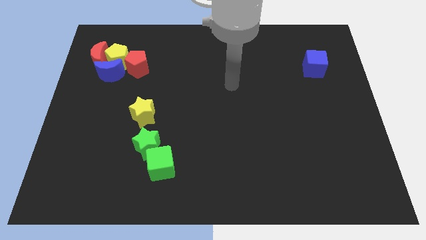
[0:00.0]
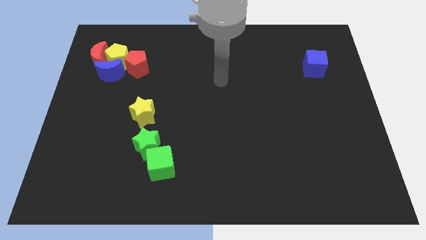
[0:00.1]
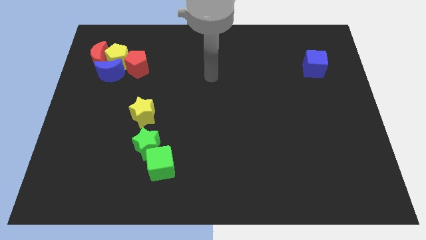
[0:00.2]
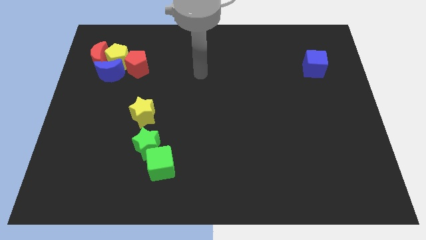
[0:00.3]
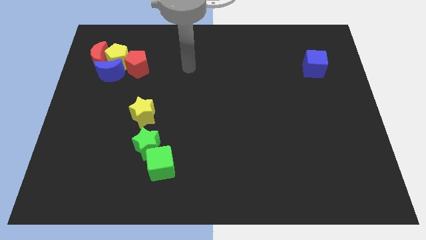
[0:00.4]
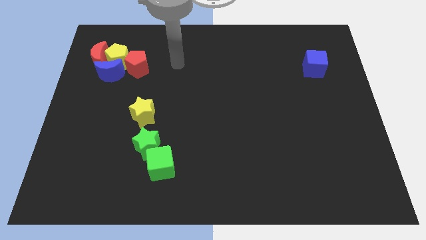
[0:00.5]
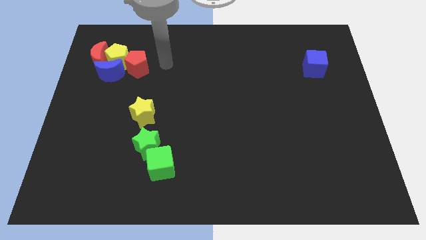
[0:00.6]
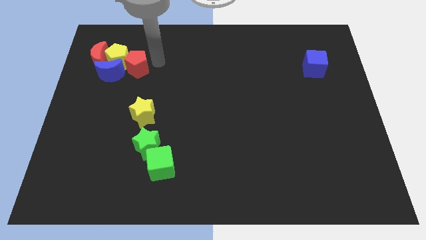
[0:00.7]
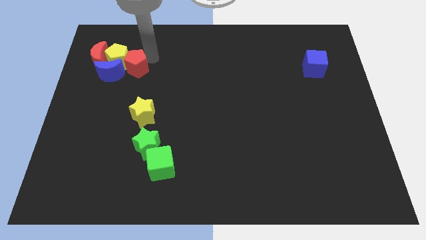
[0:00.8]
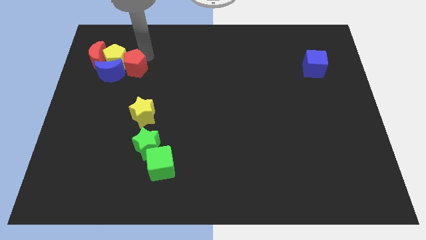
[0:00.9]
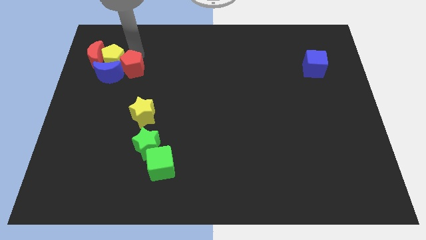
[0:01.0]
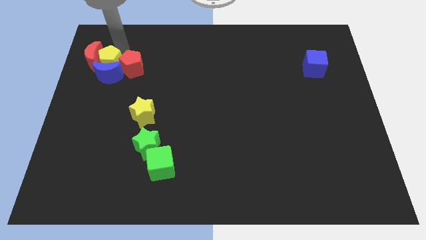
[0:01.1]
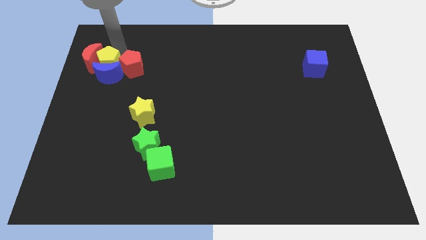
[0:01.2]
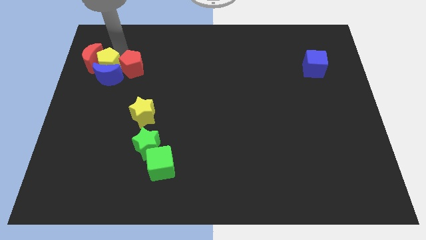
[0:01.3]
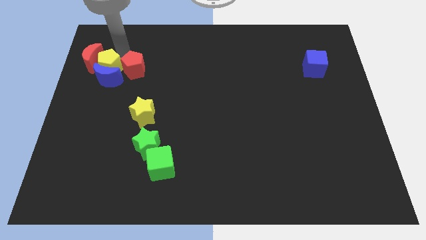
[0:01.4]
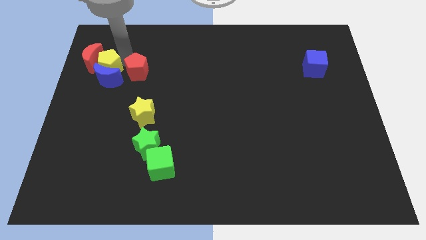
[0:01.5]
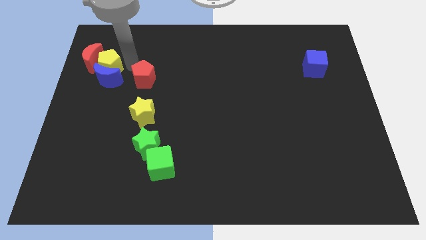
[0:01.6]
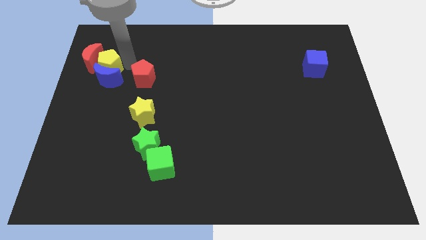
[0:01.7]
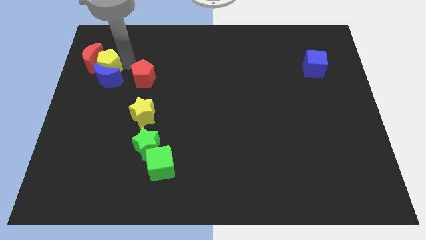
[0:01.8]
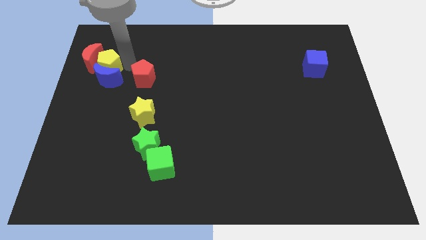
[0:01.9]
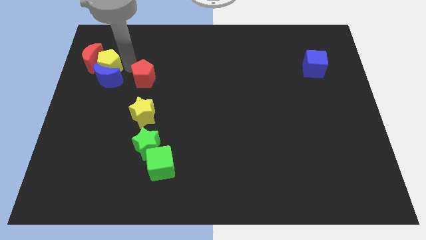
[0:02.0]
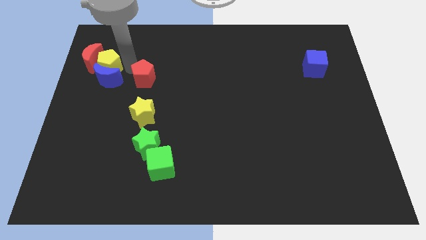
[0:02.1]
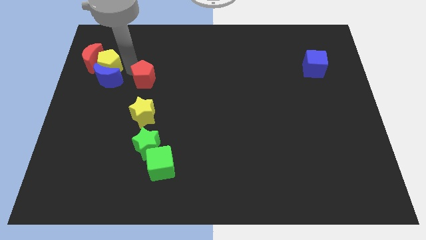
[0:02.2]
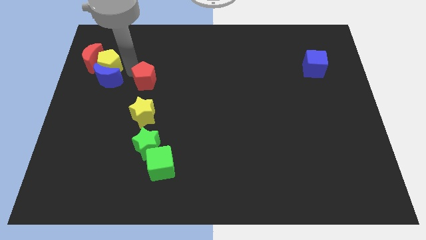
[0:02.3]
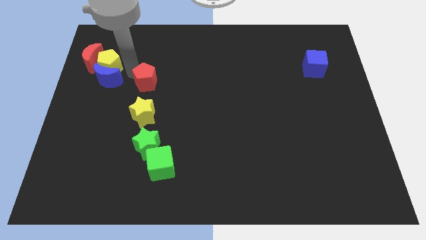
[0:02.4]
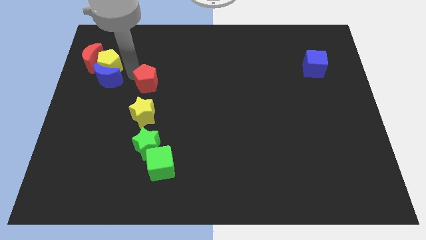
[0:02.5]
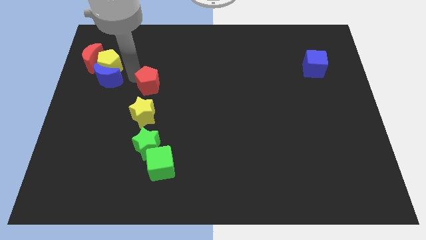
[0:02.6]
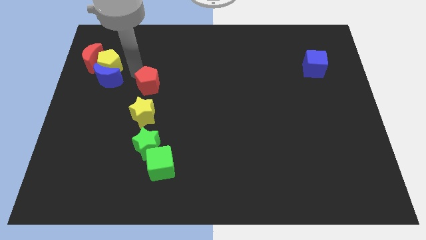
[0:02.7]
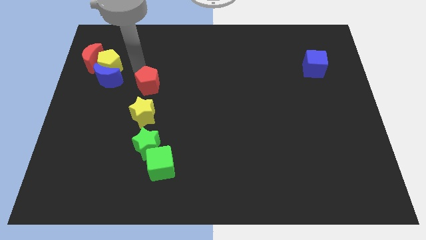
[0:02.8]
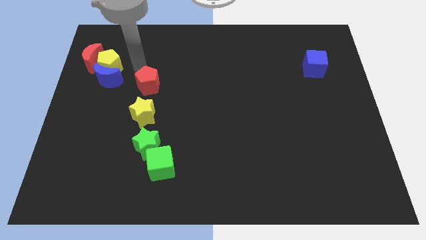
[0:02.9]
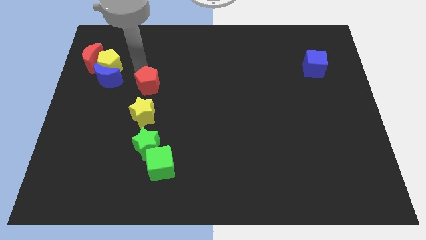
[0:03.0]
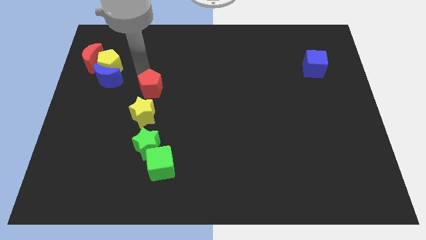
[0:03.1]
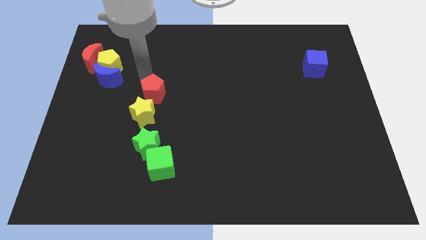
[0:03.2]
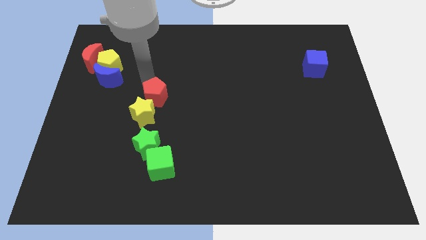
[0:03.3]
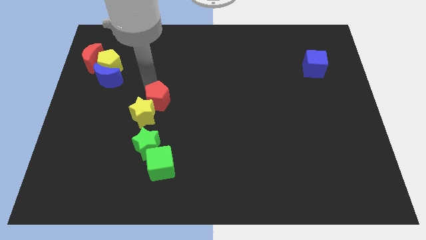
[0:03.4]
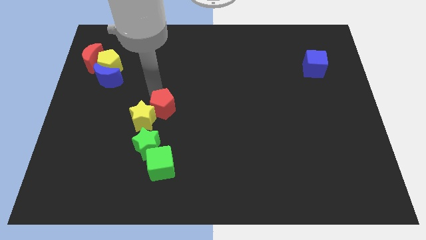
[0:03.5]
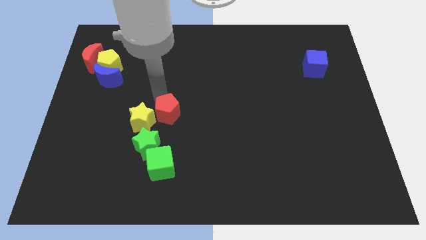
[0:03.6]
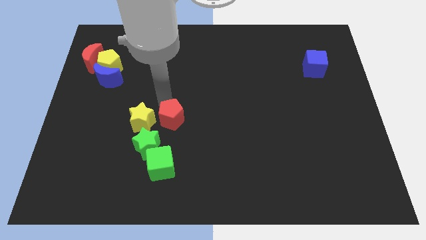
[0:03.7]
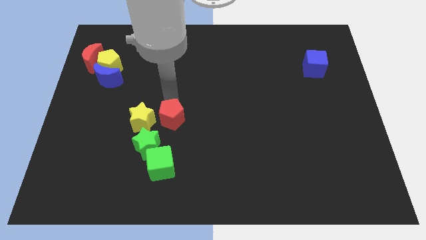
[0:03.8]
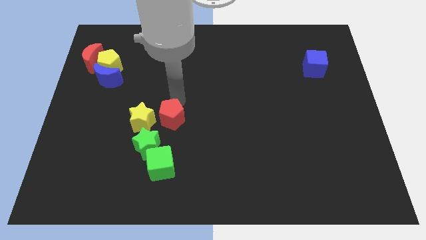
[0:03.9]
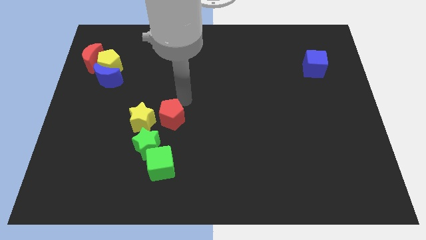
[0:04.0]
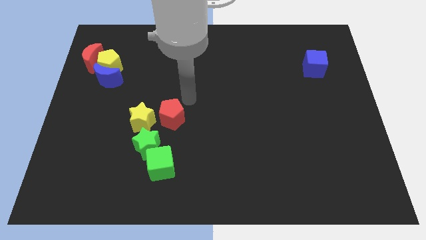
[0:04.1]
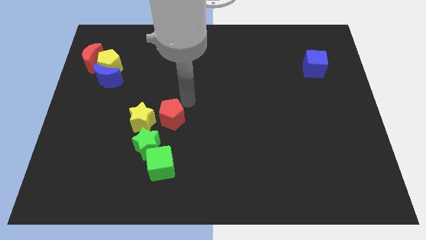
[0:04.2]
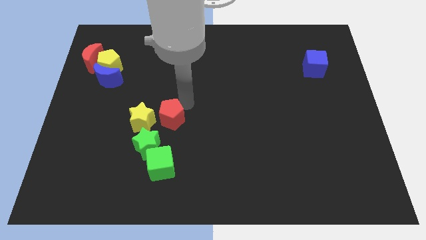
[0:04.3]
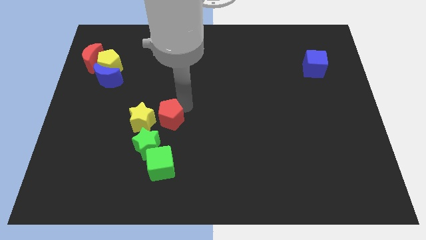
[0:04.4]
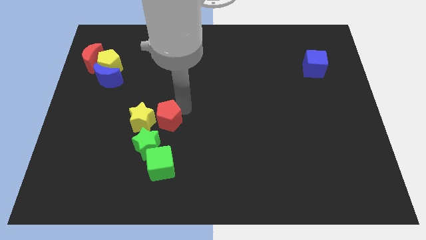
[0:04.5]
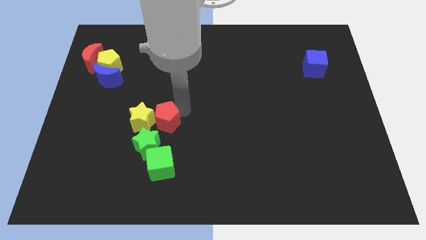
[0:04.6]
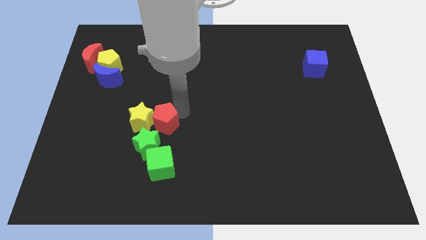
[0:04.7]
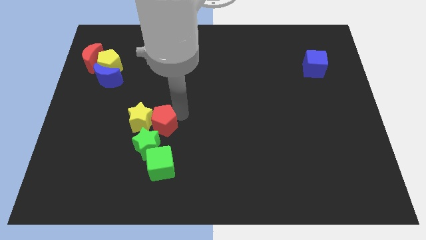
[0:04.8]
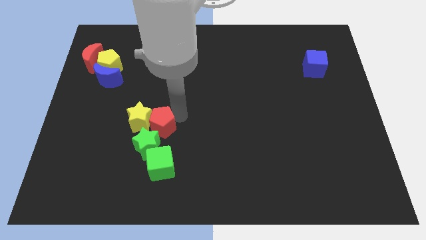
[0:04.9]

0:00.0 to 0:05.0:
move the red pentagon close to the green star

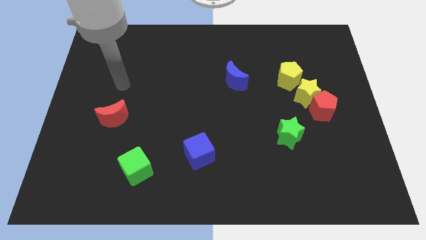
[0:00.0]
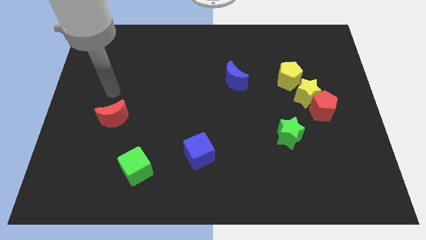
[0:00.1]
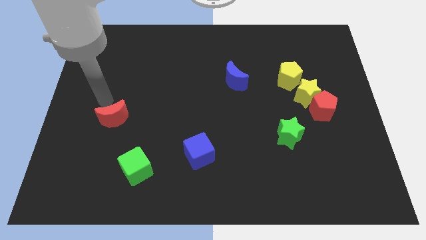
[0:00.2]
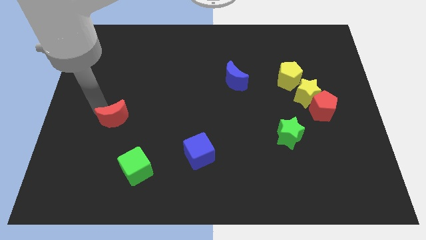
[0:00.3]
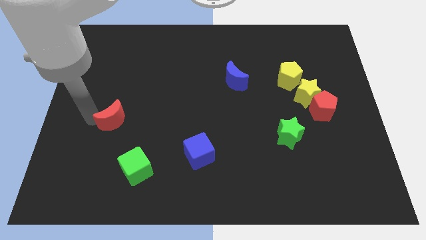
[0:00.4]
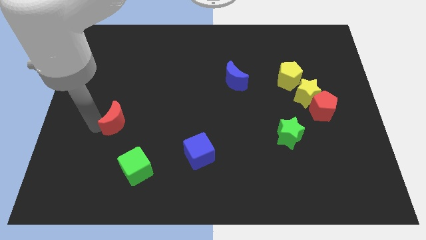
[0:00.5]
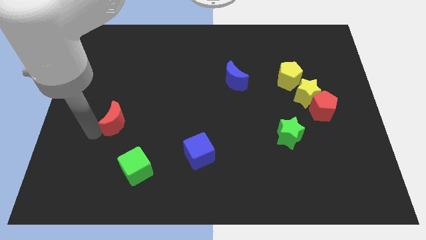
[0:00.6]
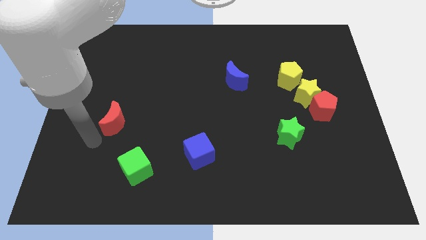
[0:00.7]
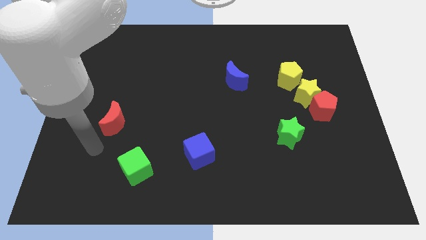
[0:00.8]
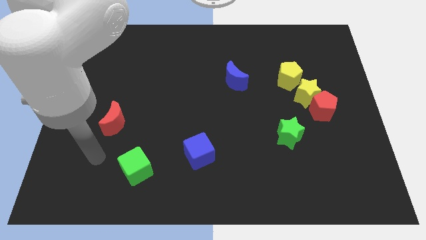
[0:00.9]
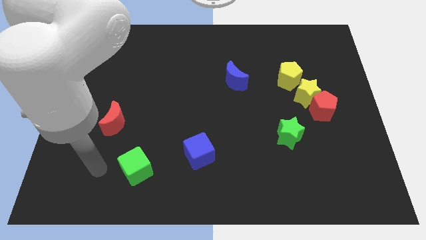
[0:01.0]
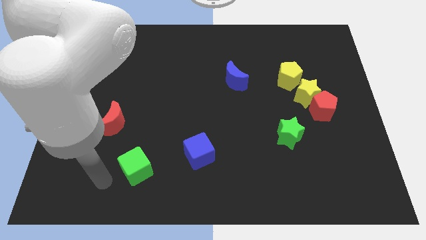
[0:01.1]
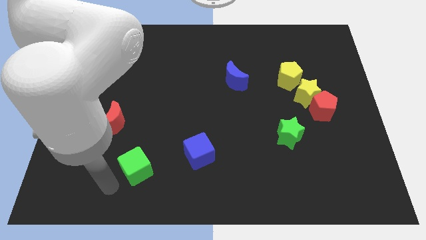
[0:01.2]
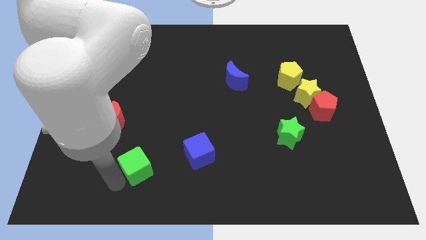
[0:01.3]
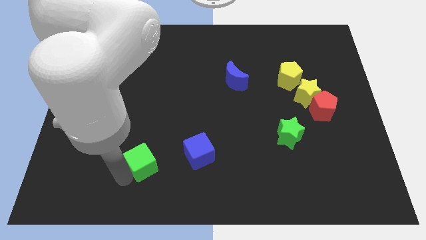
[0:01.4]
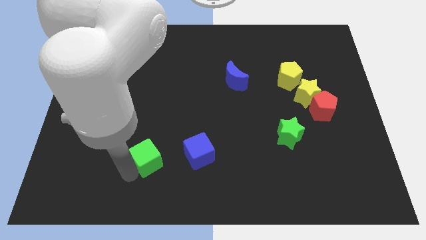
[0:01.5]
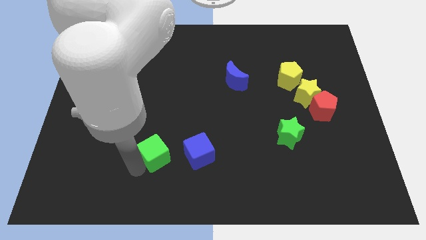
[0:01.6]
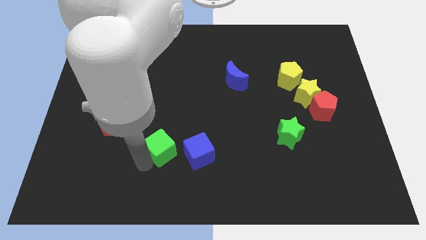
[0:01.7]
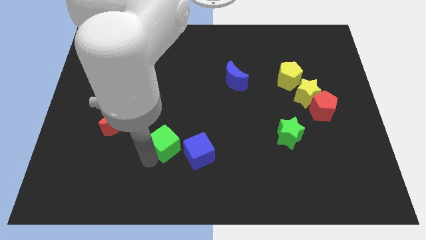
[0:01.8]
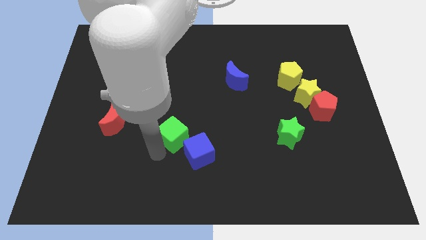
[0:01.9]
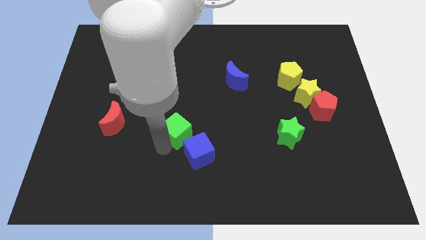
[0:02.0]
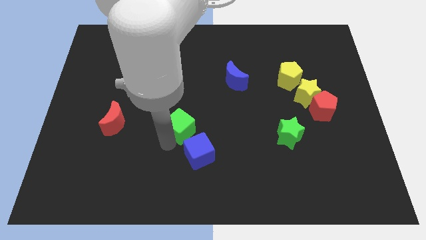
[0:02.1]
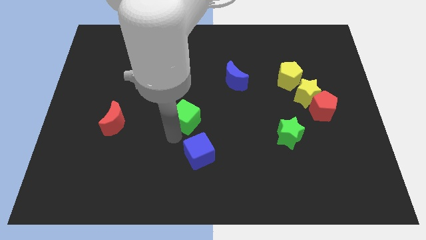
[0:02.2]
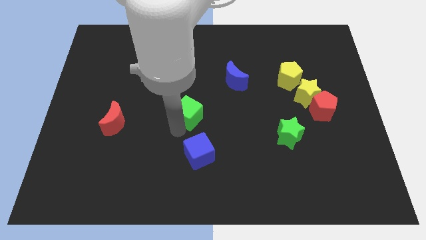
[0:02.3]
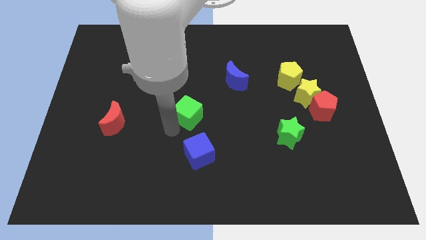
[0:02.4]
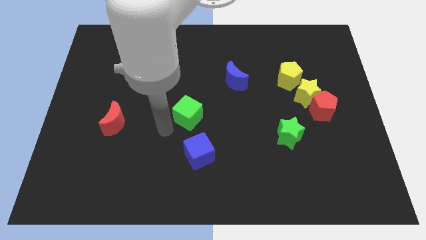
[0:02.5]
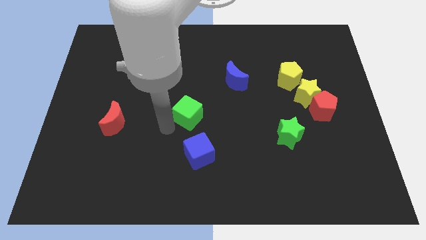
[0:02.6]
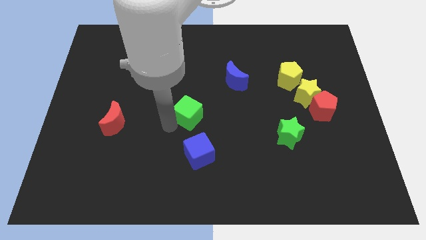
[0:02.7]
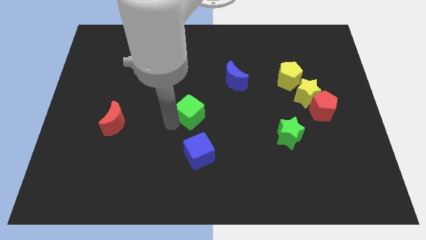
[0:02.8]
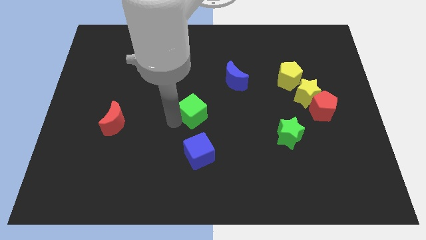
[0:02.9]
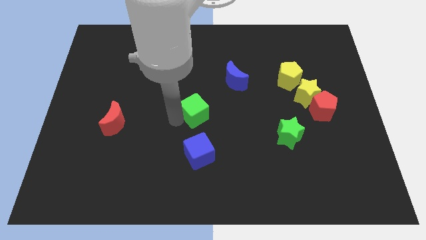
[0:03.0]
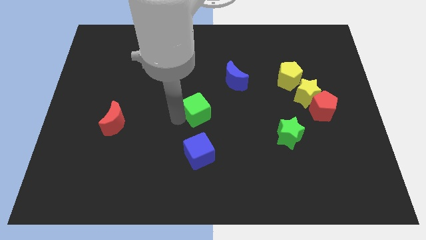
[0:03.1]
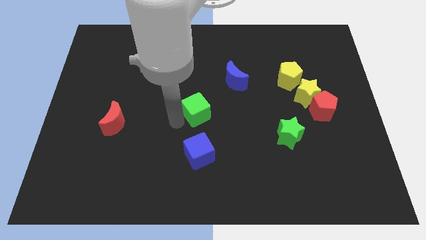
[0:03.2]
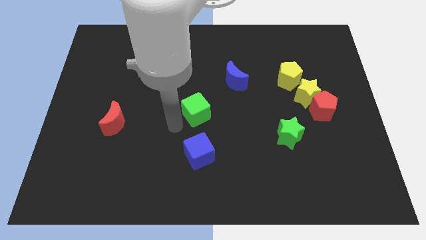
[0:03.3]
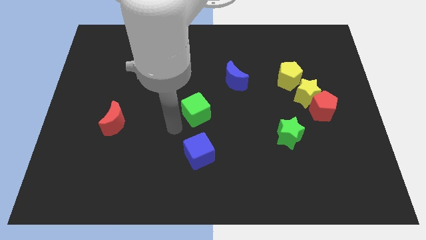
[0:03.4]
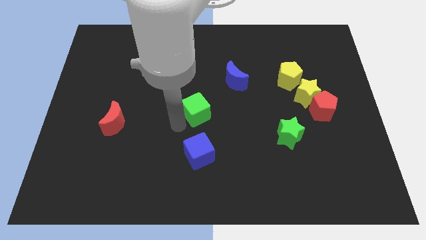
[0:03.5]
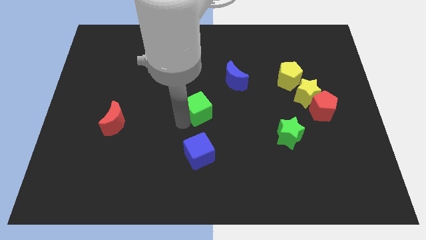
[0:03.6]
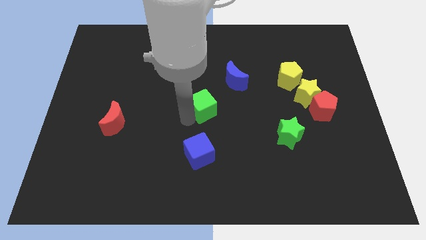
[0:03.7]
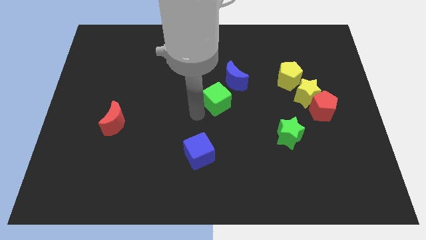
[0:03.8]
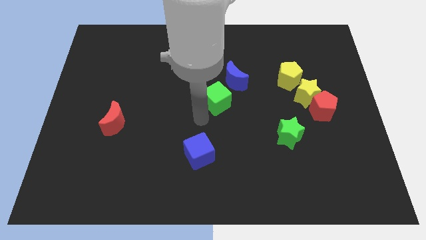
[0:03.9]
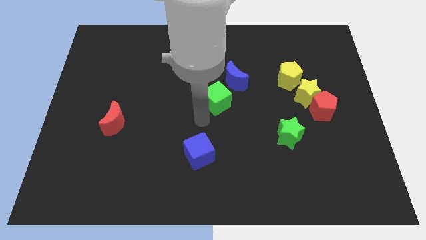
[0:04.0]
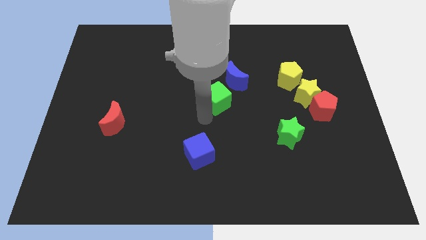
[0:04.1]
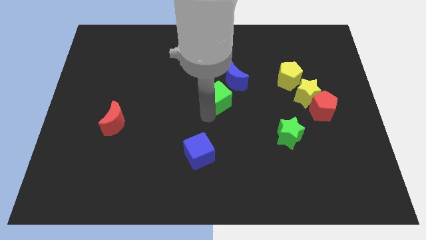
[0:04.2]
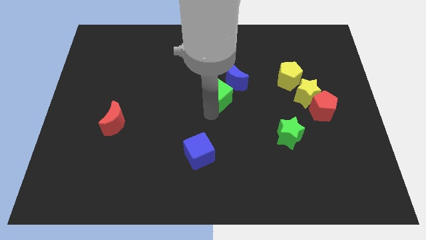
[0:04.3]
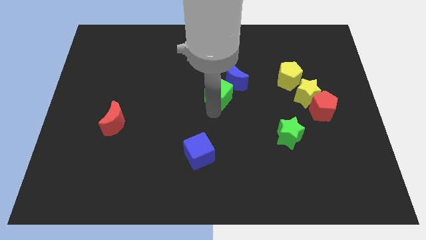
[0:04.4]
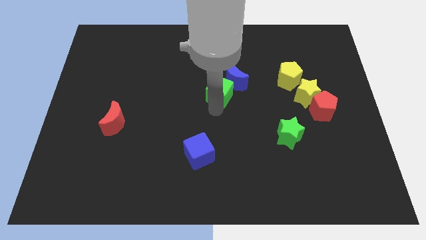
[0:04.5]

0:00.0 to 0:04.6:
move the green cube close to the blue moon
